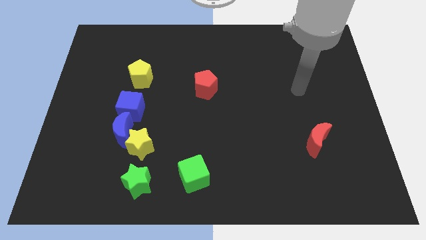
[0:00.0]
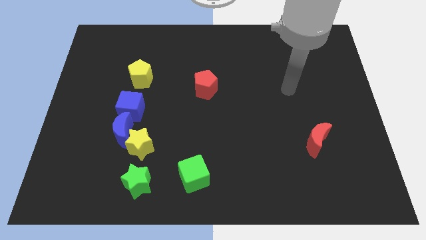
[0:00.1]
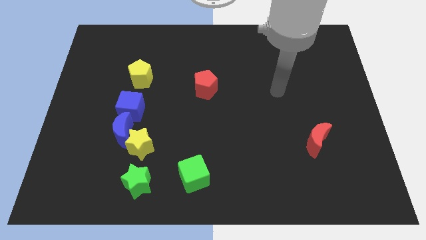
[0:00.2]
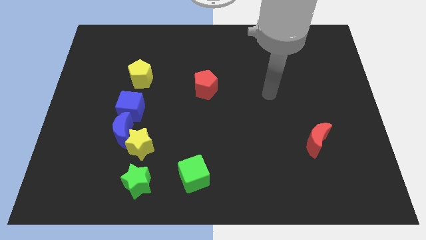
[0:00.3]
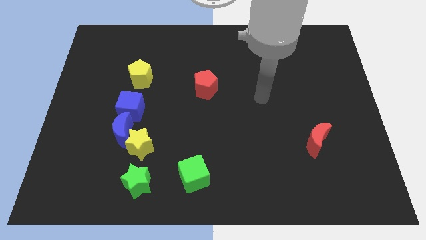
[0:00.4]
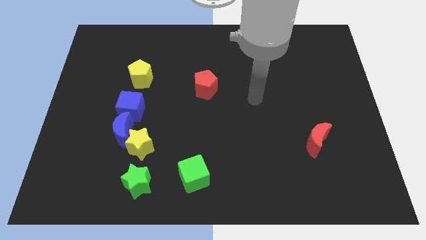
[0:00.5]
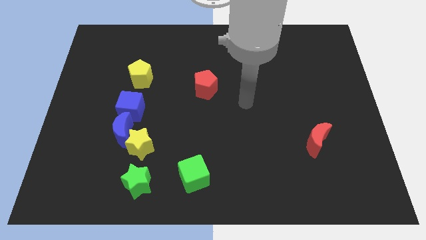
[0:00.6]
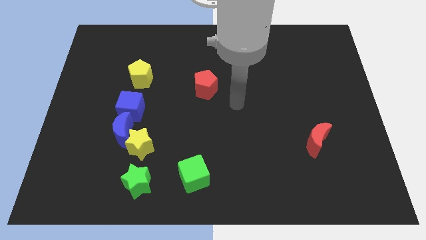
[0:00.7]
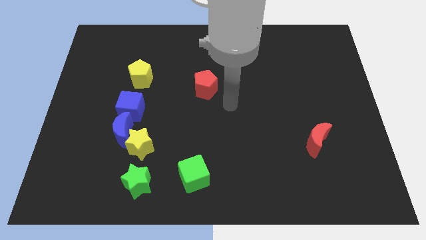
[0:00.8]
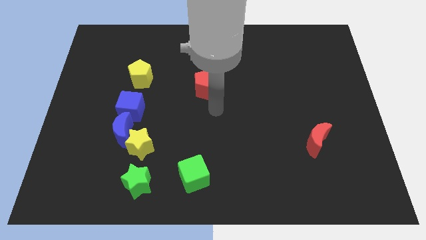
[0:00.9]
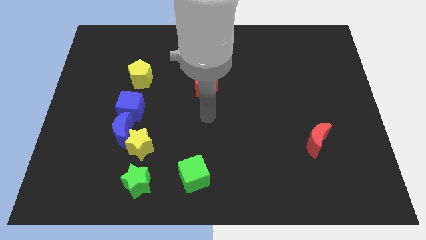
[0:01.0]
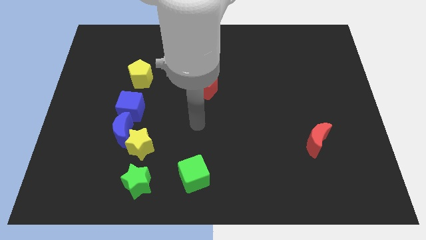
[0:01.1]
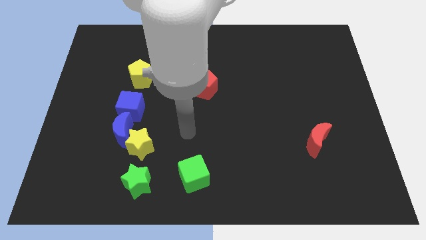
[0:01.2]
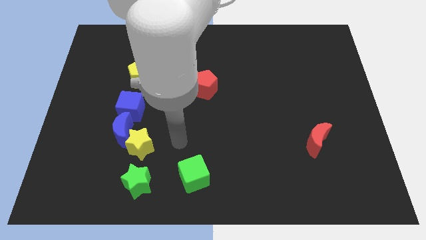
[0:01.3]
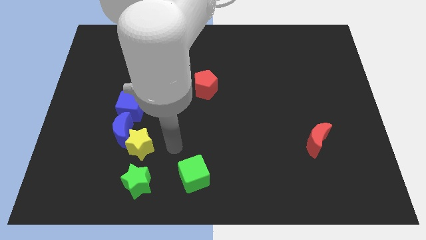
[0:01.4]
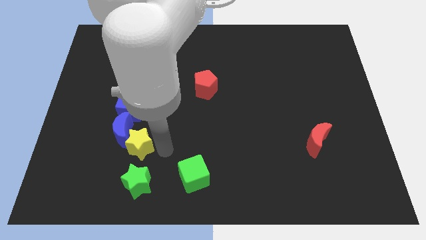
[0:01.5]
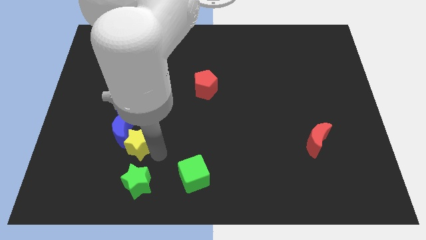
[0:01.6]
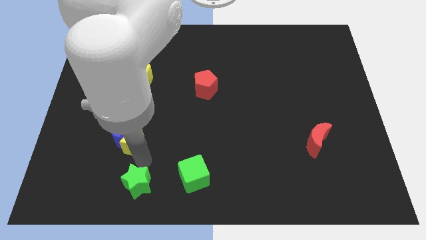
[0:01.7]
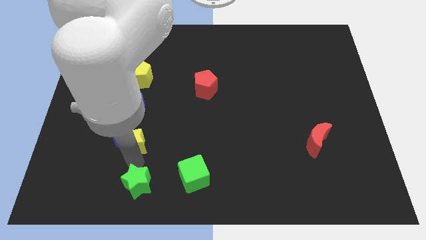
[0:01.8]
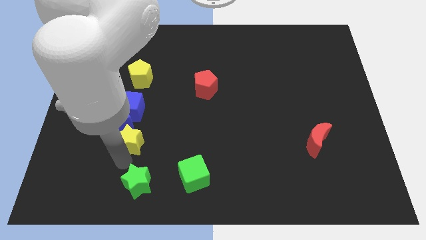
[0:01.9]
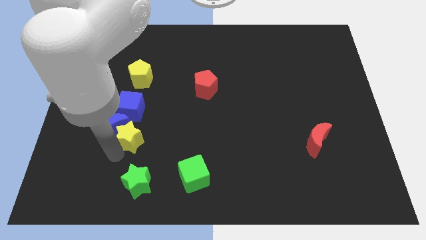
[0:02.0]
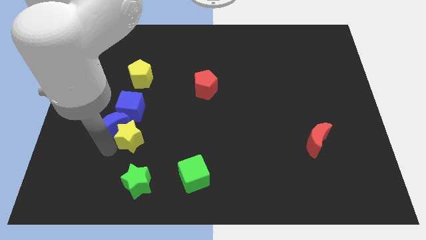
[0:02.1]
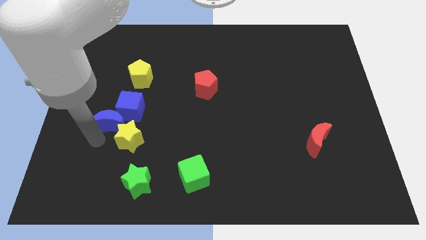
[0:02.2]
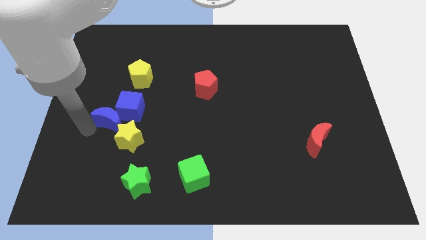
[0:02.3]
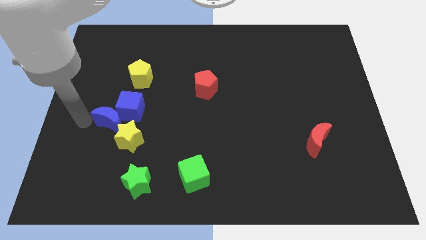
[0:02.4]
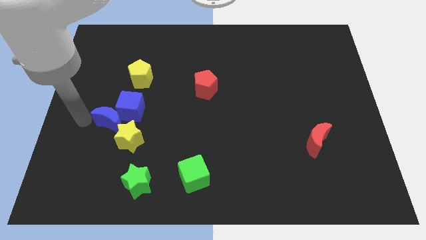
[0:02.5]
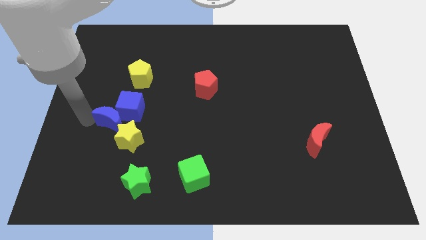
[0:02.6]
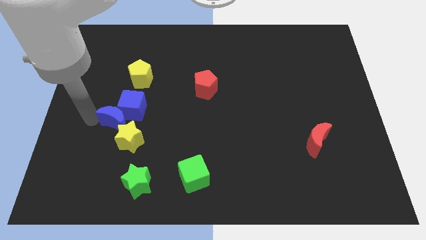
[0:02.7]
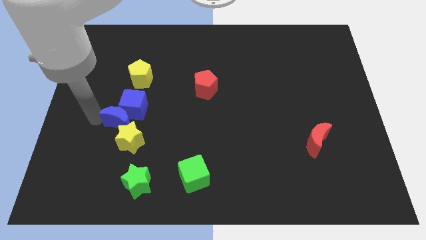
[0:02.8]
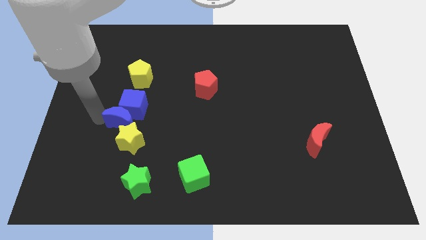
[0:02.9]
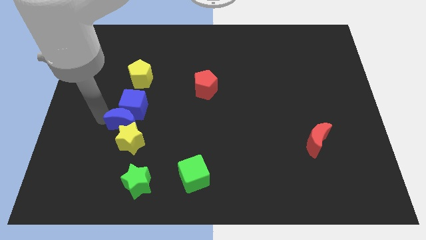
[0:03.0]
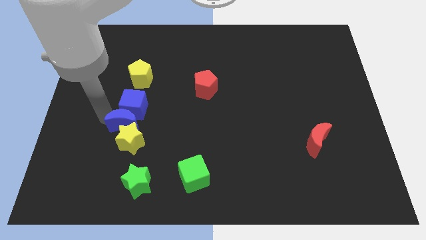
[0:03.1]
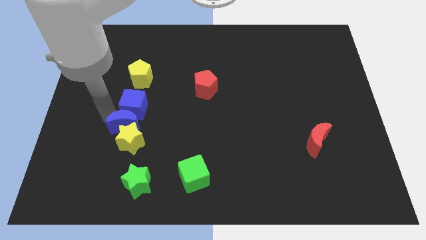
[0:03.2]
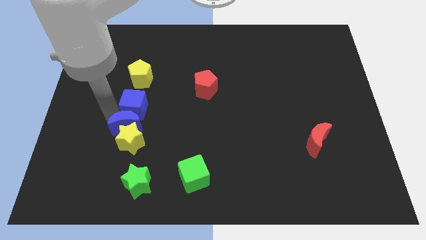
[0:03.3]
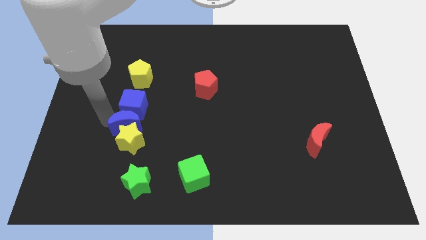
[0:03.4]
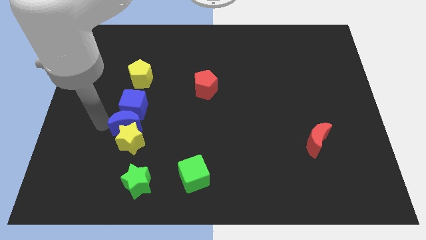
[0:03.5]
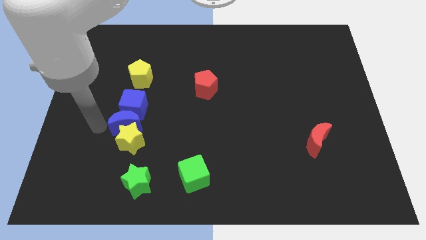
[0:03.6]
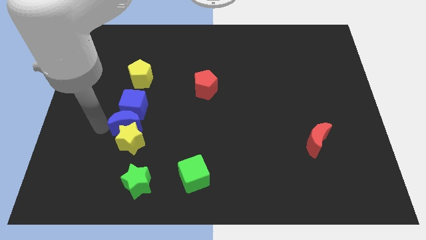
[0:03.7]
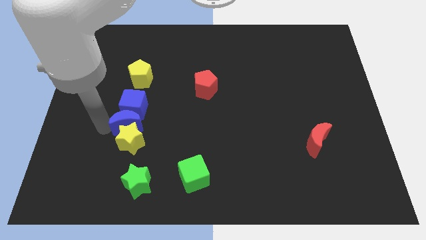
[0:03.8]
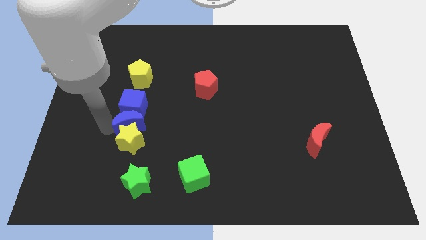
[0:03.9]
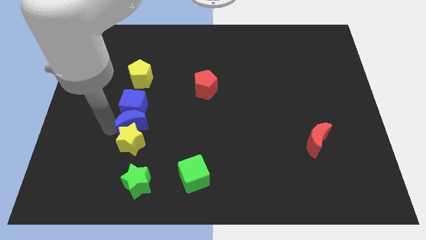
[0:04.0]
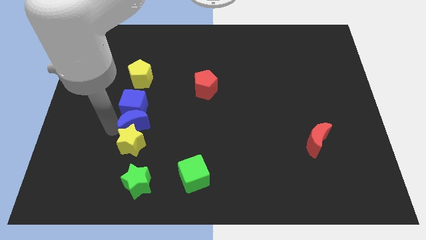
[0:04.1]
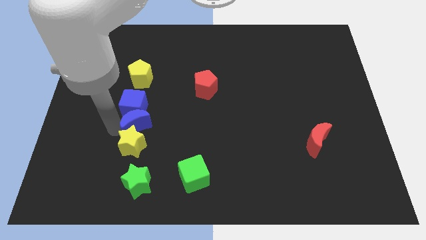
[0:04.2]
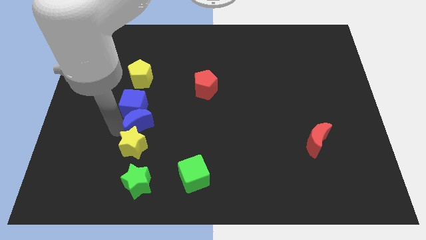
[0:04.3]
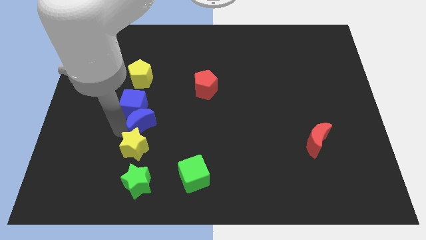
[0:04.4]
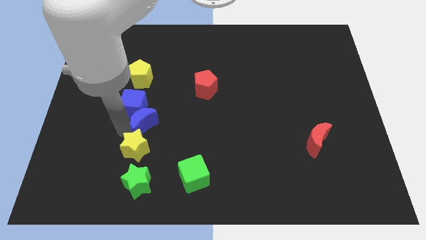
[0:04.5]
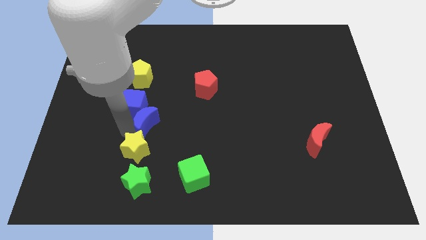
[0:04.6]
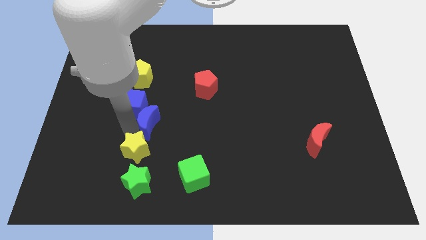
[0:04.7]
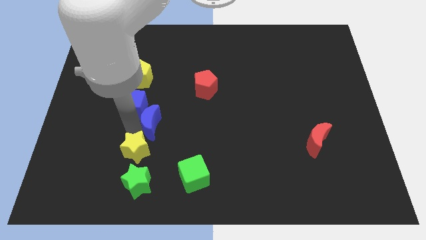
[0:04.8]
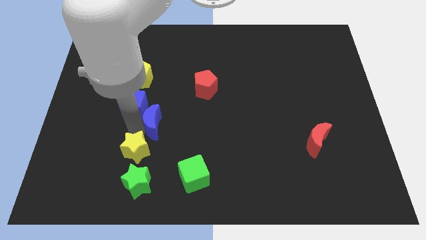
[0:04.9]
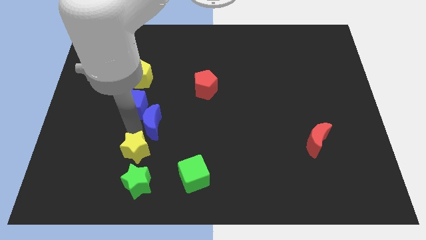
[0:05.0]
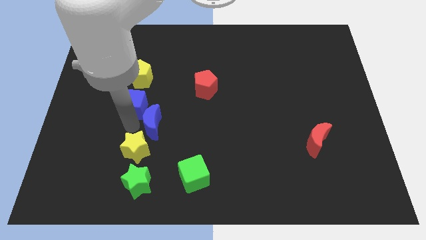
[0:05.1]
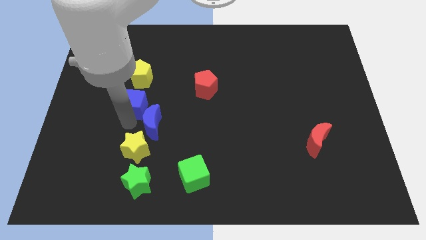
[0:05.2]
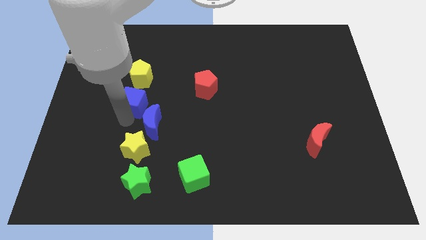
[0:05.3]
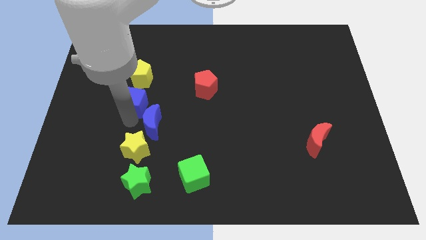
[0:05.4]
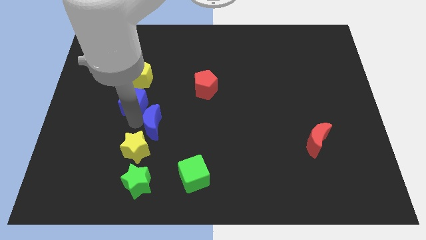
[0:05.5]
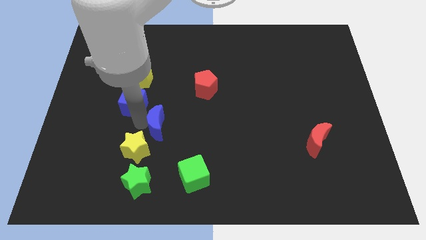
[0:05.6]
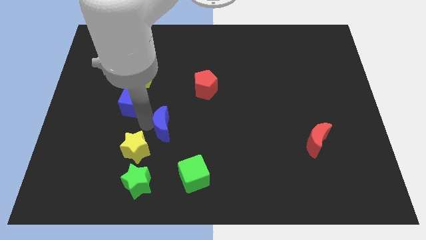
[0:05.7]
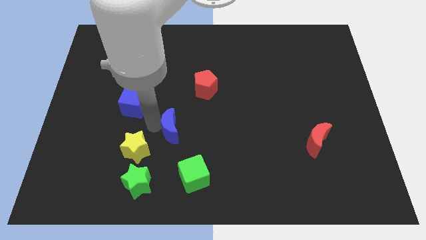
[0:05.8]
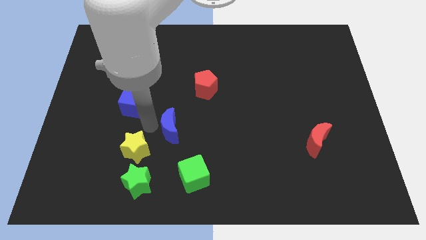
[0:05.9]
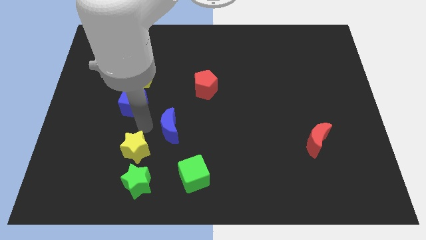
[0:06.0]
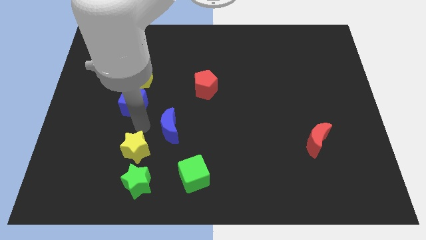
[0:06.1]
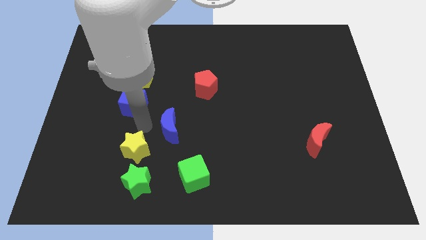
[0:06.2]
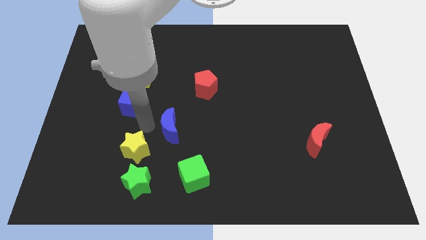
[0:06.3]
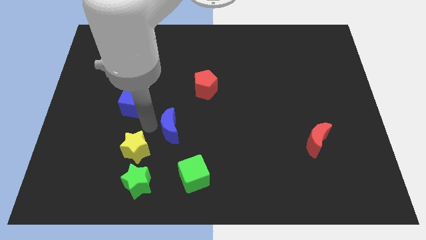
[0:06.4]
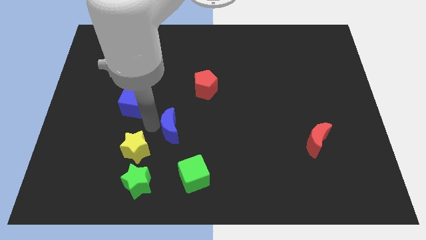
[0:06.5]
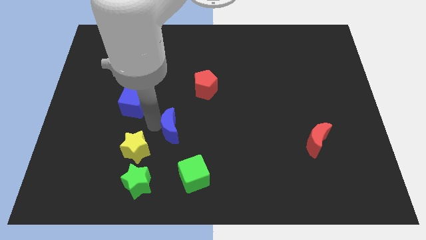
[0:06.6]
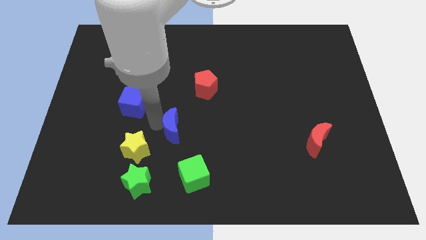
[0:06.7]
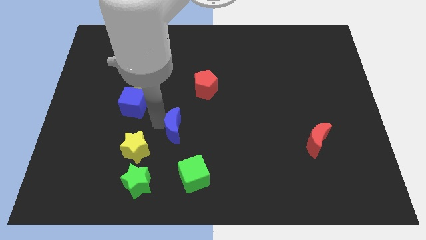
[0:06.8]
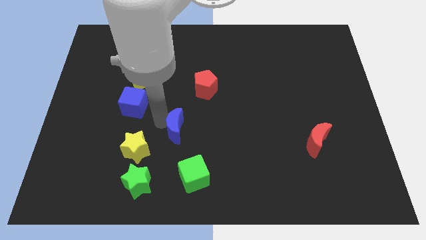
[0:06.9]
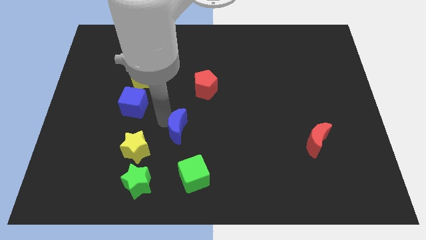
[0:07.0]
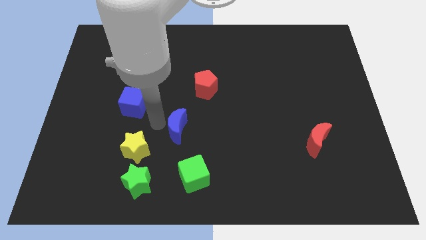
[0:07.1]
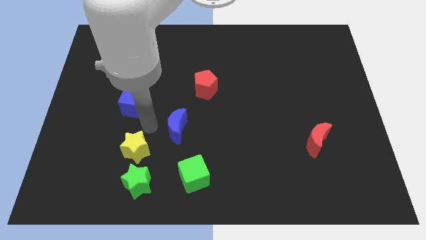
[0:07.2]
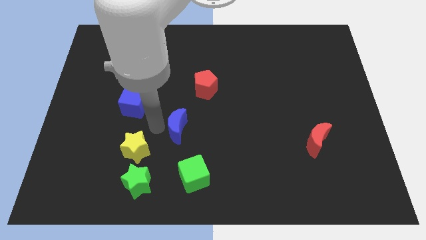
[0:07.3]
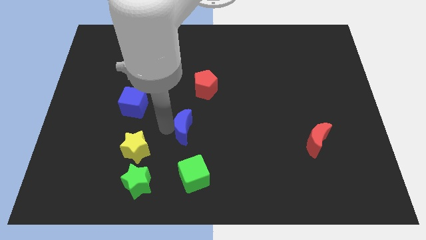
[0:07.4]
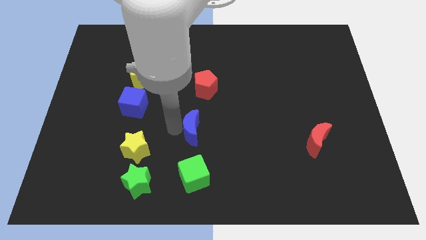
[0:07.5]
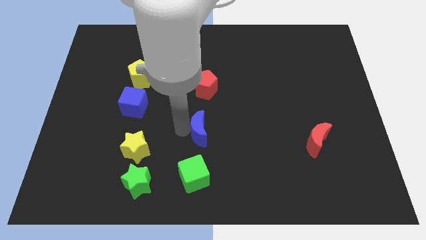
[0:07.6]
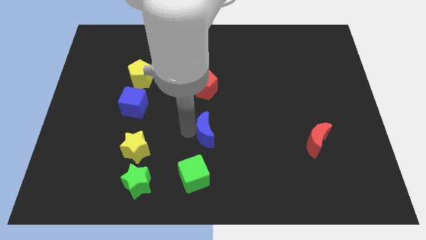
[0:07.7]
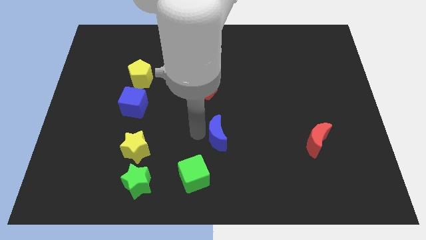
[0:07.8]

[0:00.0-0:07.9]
slide the blue moon right
